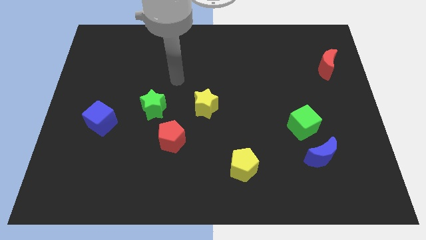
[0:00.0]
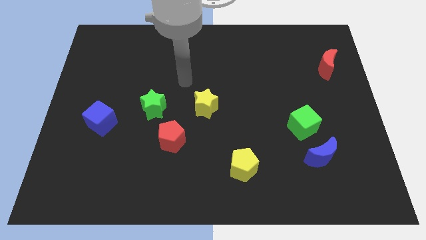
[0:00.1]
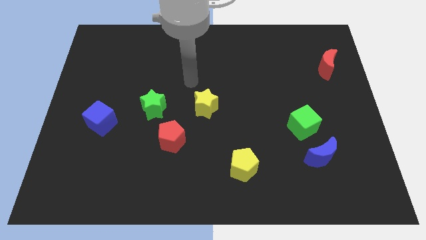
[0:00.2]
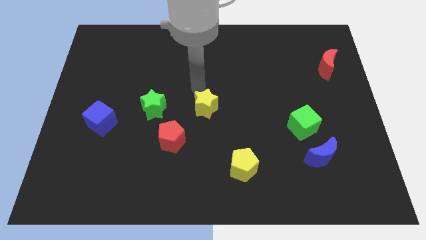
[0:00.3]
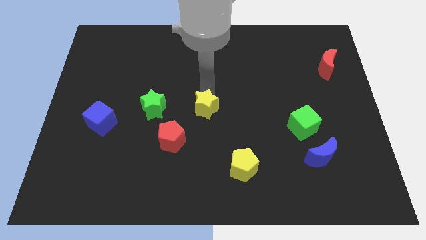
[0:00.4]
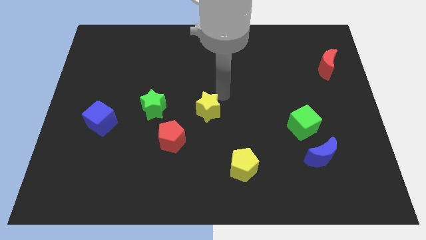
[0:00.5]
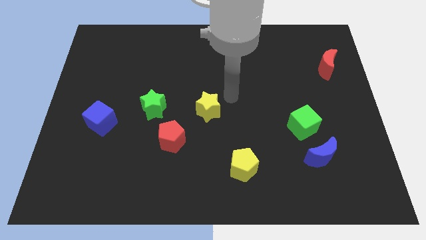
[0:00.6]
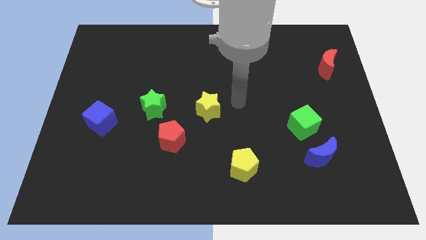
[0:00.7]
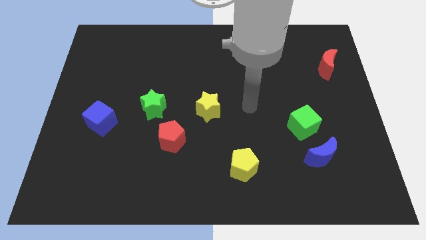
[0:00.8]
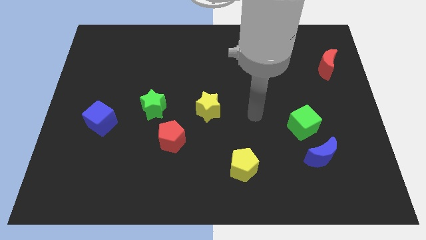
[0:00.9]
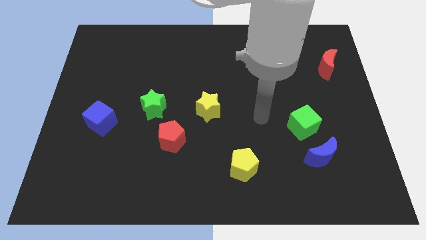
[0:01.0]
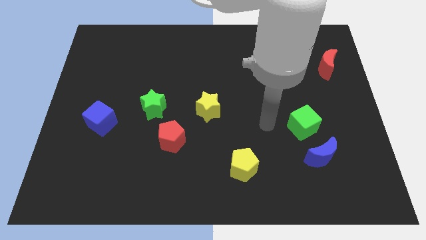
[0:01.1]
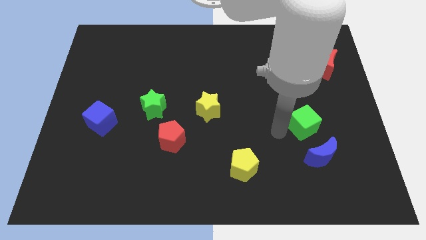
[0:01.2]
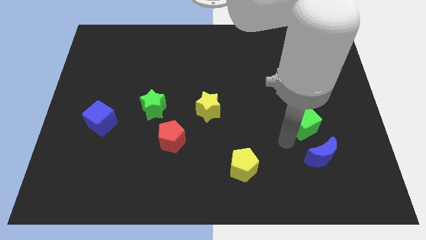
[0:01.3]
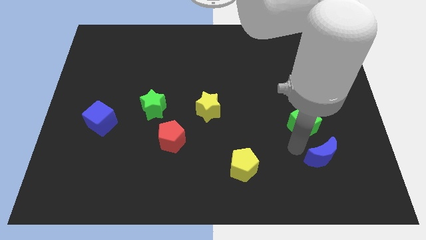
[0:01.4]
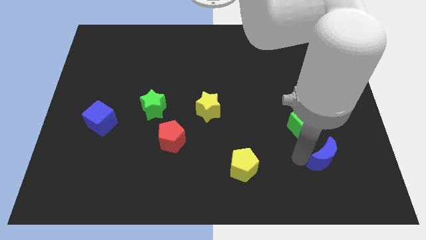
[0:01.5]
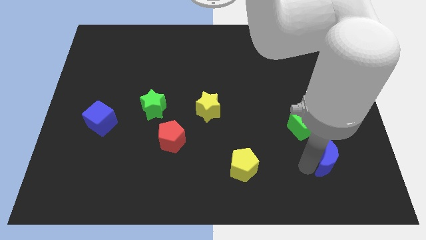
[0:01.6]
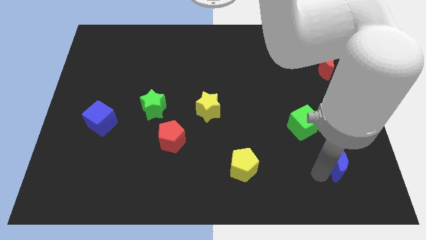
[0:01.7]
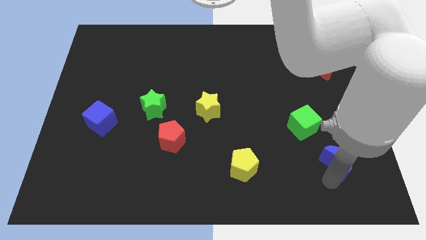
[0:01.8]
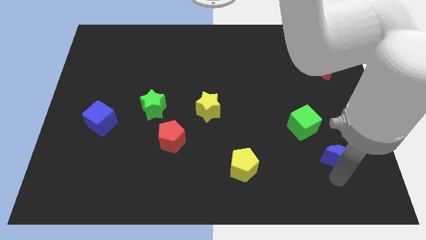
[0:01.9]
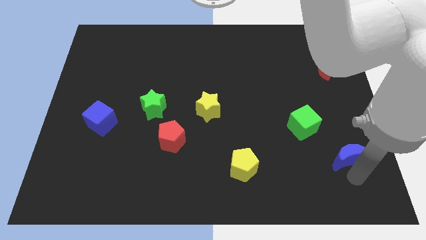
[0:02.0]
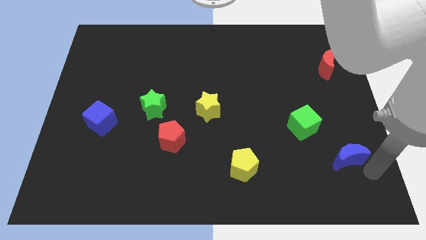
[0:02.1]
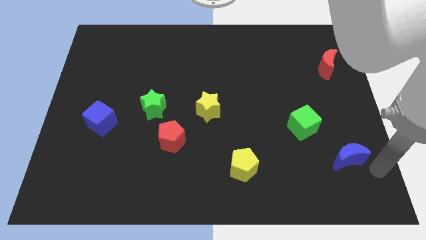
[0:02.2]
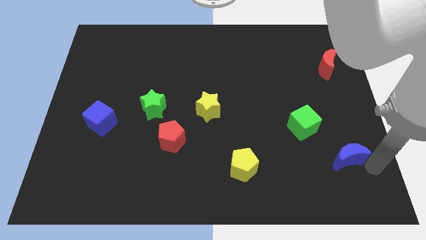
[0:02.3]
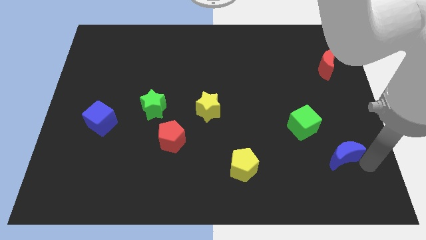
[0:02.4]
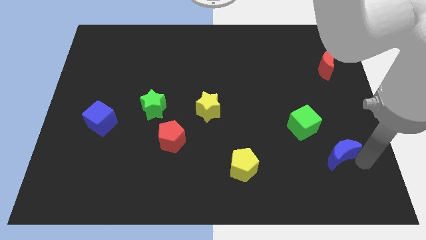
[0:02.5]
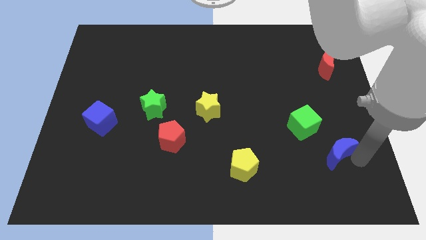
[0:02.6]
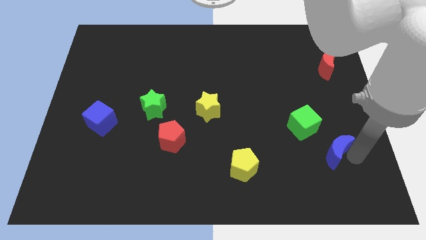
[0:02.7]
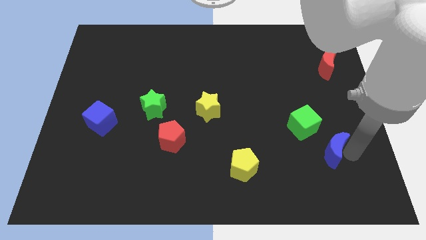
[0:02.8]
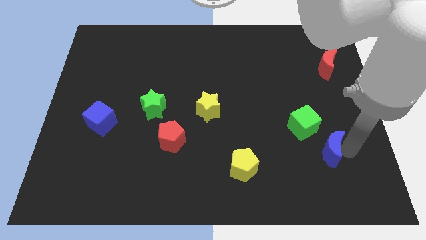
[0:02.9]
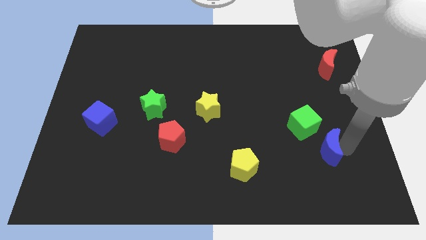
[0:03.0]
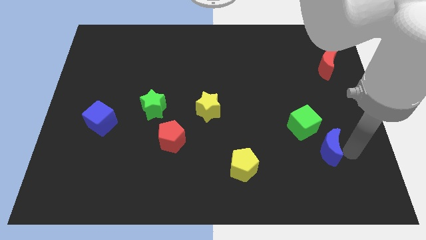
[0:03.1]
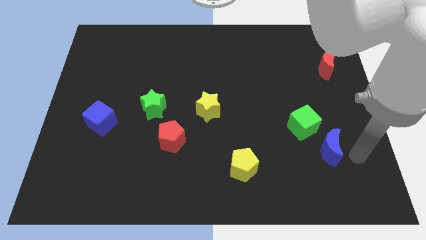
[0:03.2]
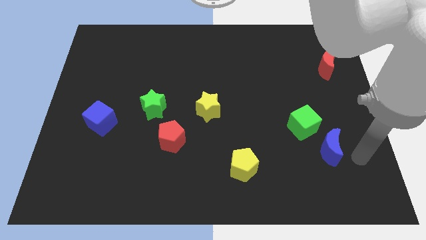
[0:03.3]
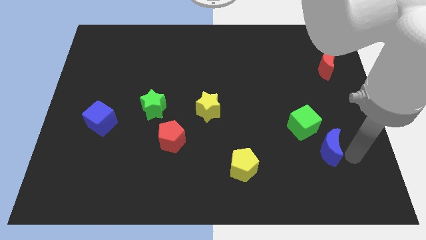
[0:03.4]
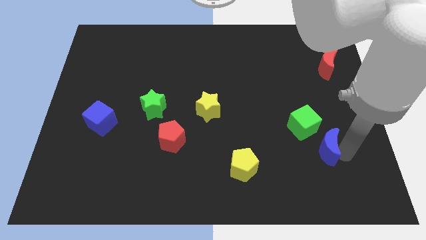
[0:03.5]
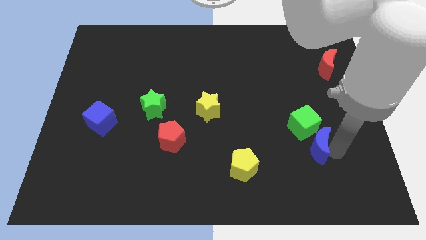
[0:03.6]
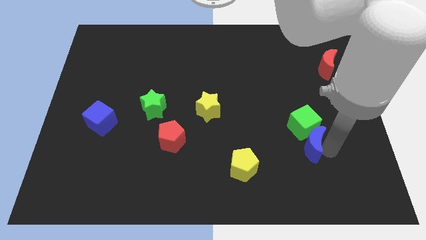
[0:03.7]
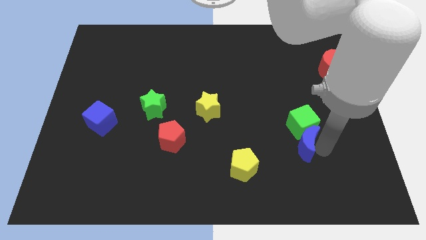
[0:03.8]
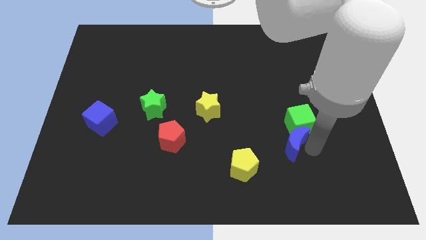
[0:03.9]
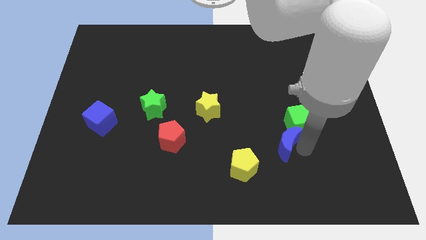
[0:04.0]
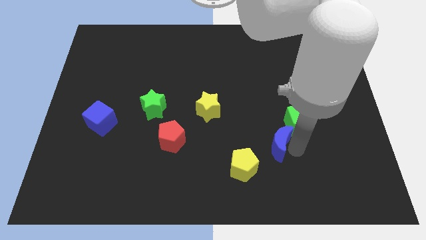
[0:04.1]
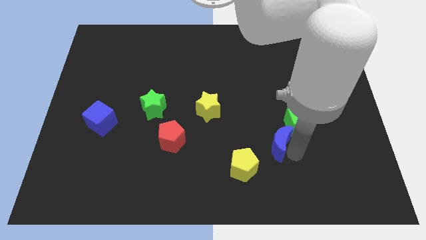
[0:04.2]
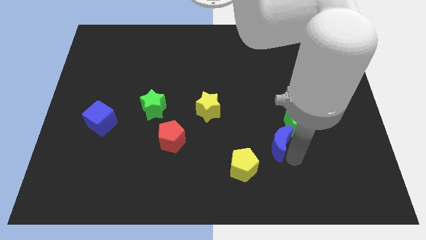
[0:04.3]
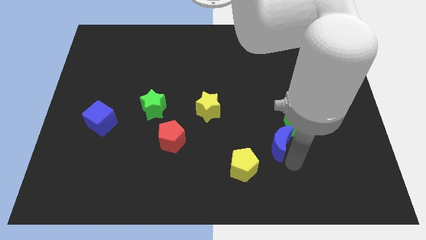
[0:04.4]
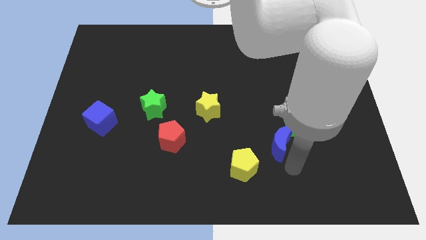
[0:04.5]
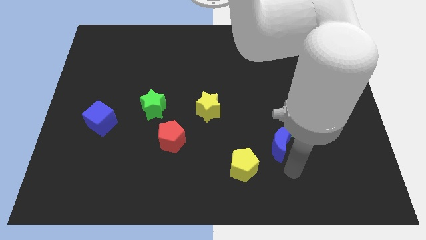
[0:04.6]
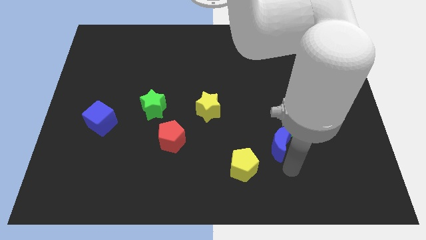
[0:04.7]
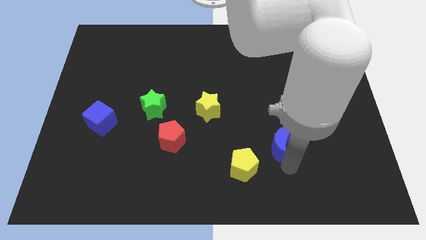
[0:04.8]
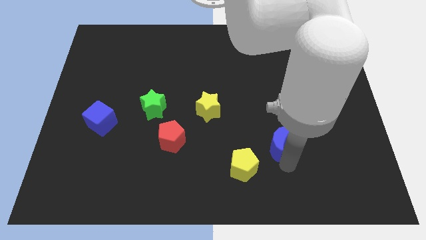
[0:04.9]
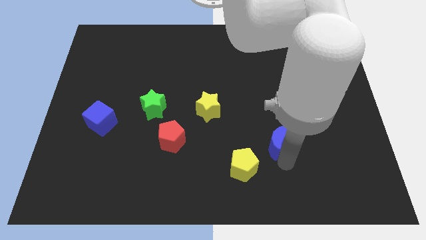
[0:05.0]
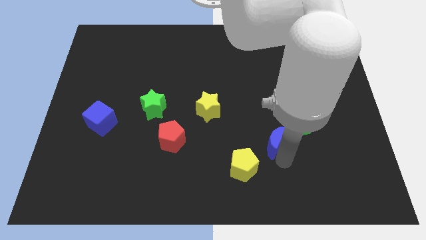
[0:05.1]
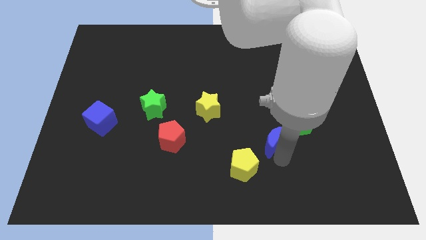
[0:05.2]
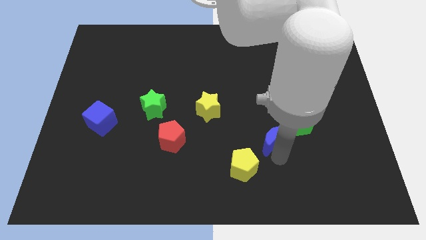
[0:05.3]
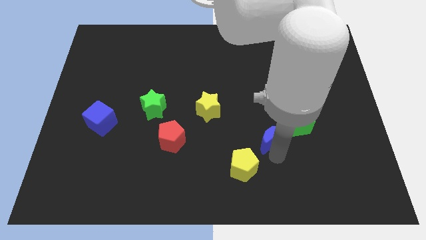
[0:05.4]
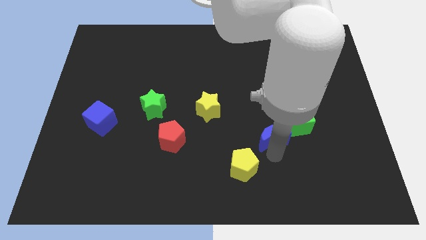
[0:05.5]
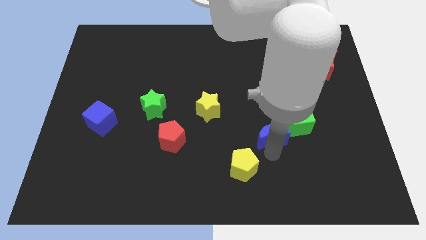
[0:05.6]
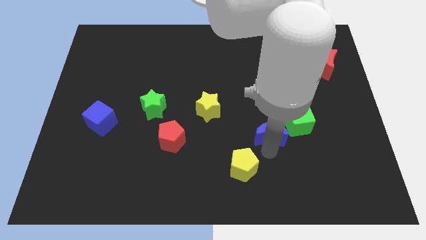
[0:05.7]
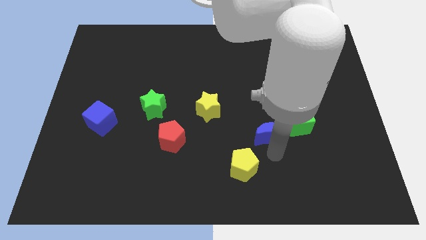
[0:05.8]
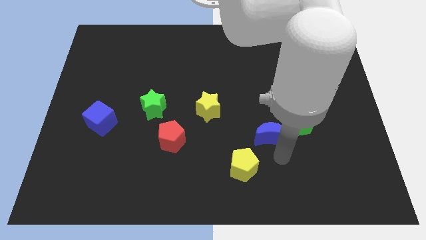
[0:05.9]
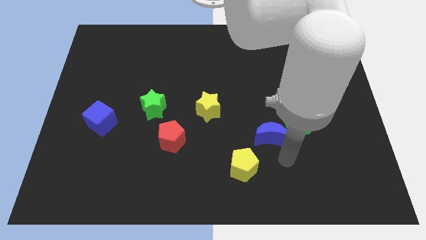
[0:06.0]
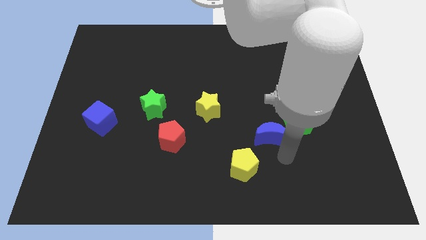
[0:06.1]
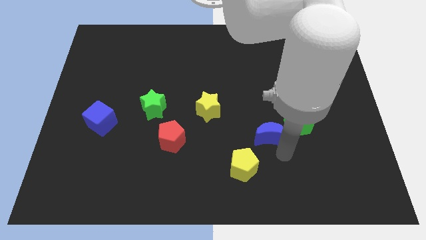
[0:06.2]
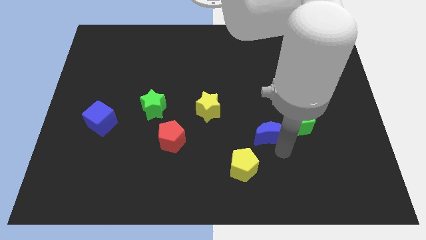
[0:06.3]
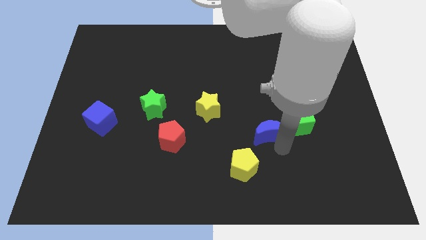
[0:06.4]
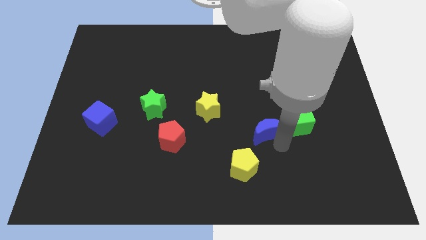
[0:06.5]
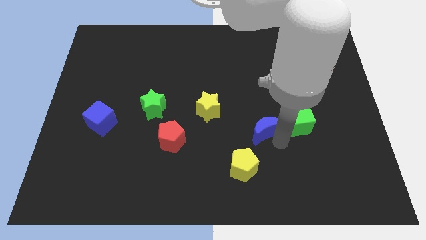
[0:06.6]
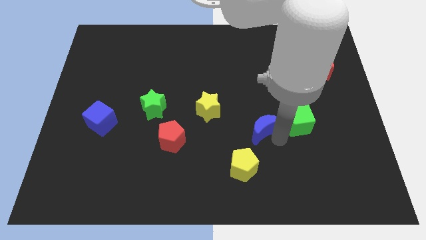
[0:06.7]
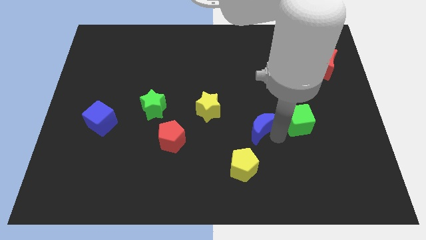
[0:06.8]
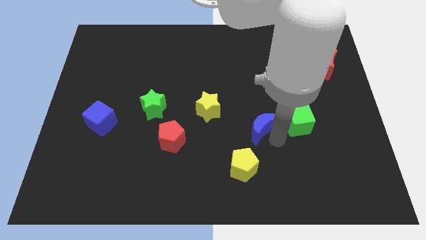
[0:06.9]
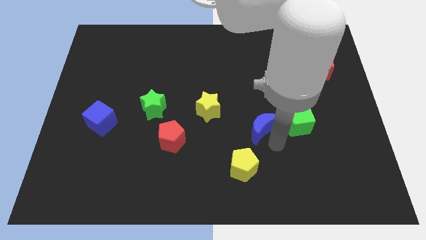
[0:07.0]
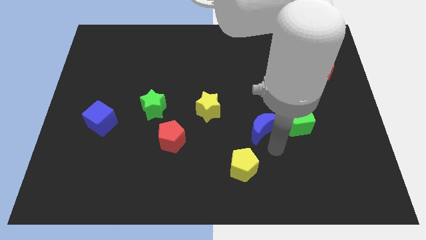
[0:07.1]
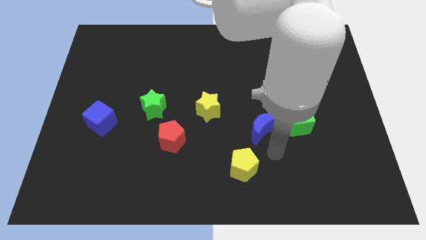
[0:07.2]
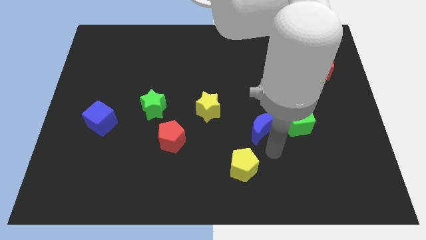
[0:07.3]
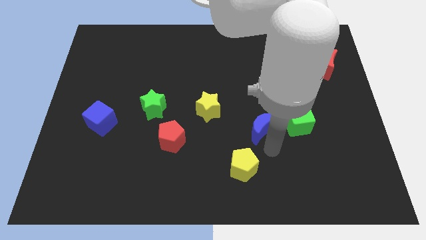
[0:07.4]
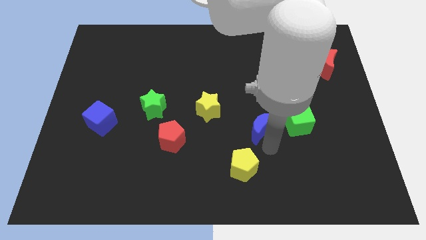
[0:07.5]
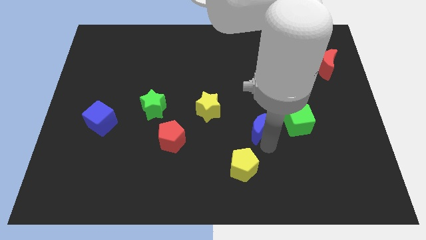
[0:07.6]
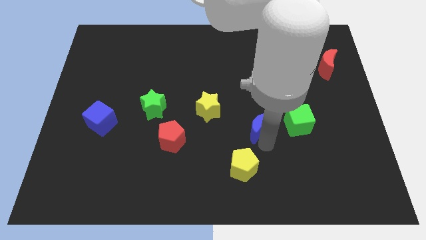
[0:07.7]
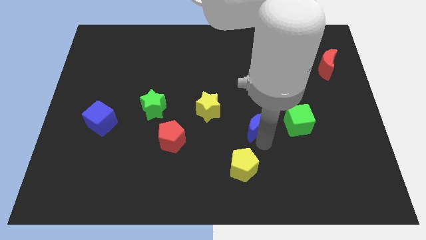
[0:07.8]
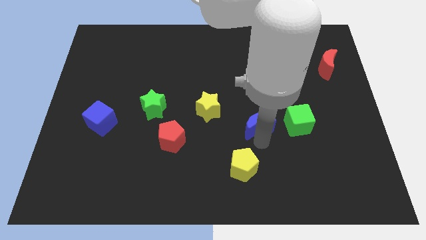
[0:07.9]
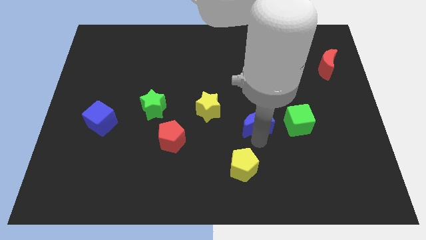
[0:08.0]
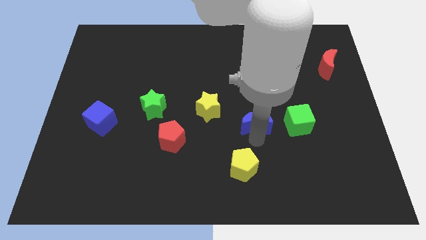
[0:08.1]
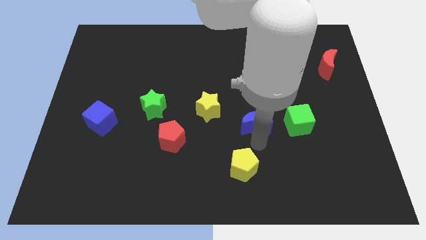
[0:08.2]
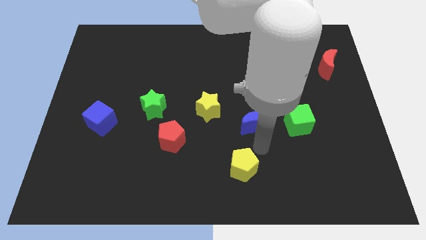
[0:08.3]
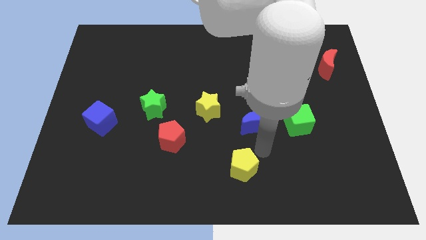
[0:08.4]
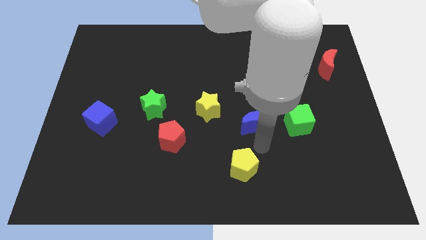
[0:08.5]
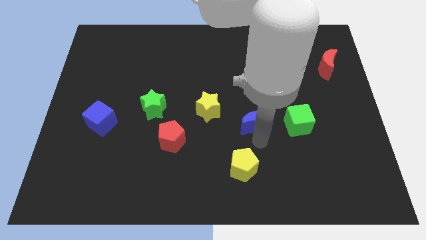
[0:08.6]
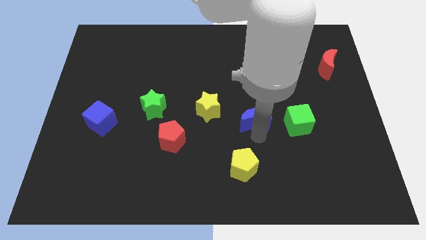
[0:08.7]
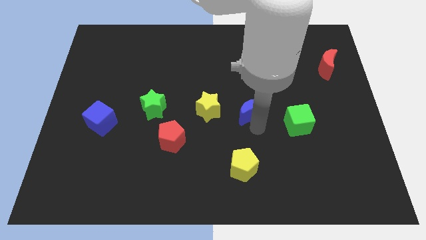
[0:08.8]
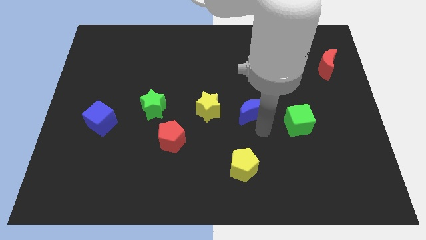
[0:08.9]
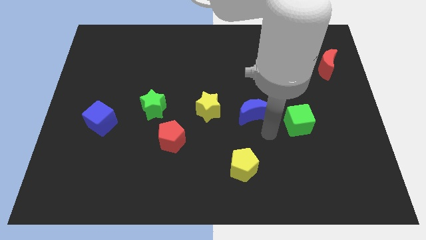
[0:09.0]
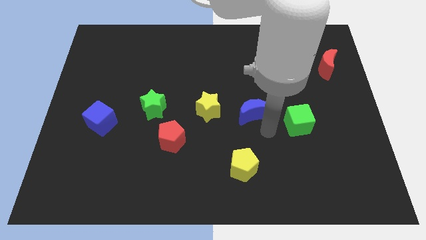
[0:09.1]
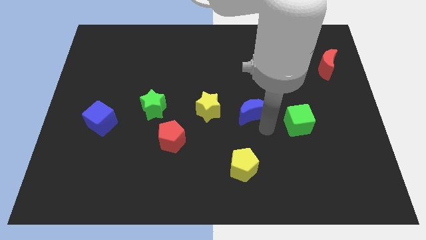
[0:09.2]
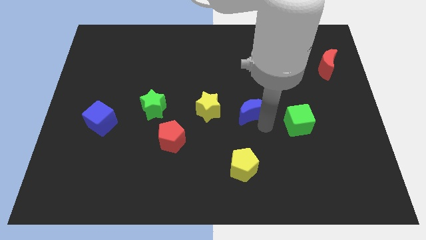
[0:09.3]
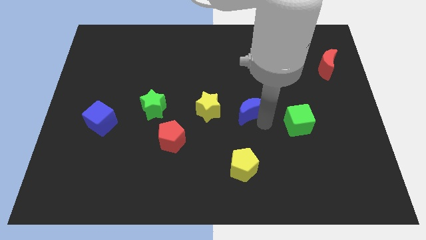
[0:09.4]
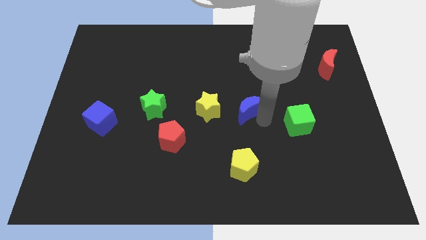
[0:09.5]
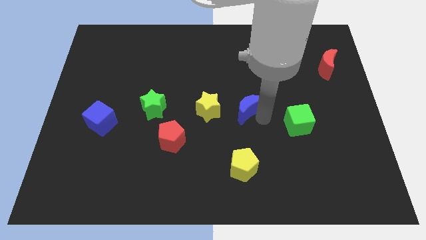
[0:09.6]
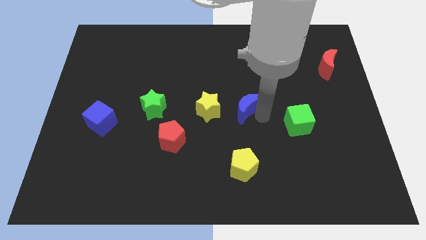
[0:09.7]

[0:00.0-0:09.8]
slide the blue moon diagonally upwards and left
